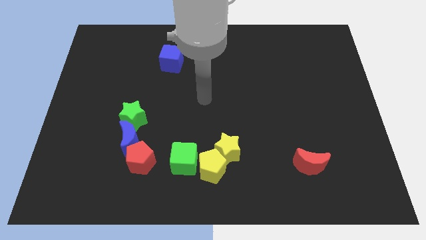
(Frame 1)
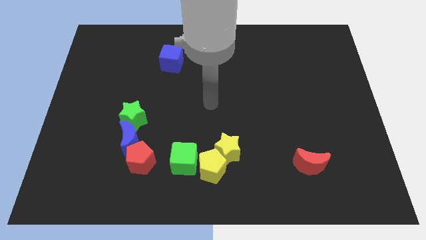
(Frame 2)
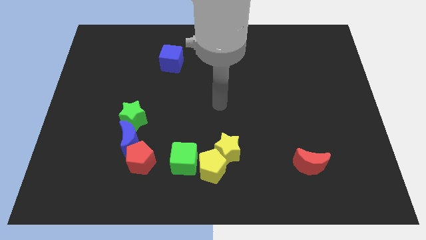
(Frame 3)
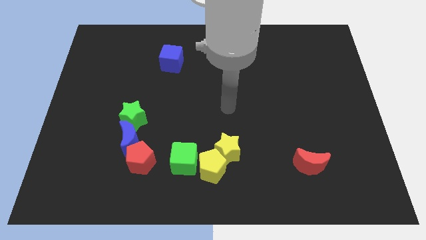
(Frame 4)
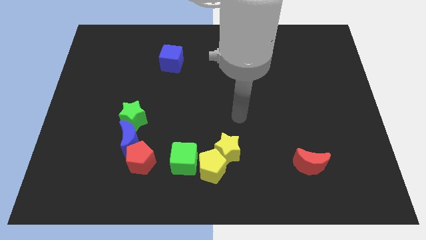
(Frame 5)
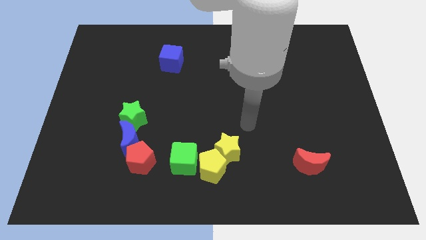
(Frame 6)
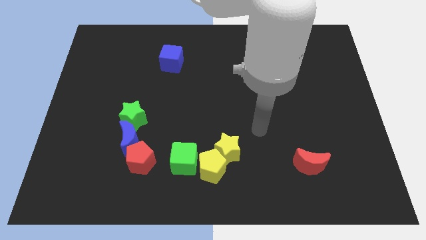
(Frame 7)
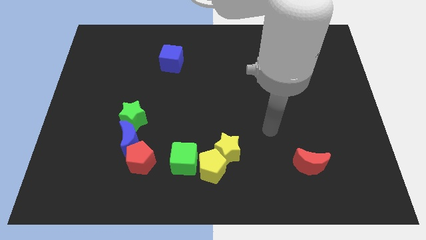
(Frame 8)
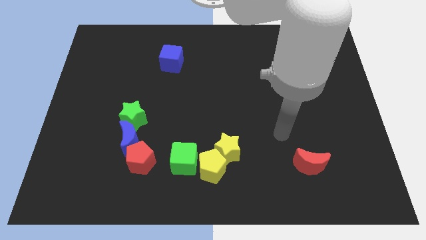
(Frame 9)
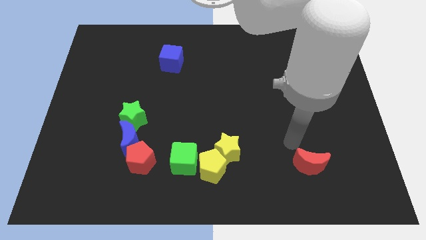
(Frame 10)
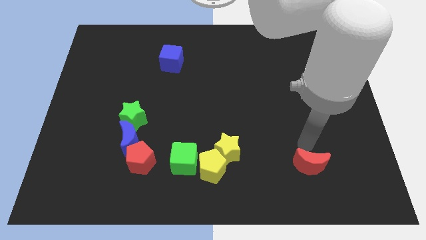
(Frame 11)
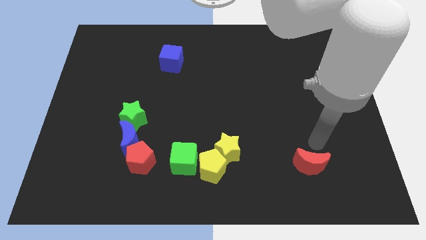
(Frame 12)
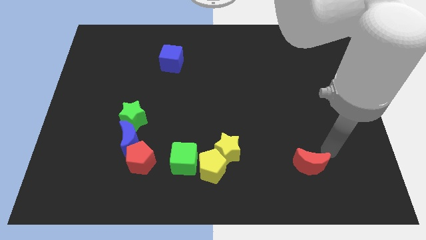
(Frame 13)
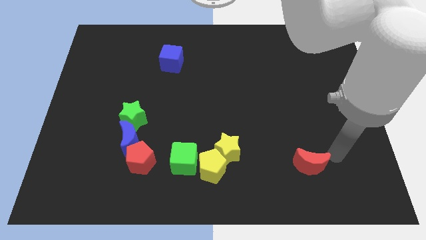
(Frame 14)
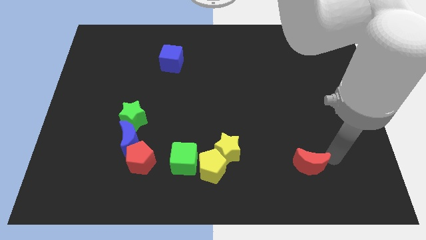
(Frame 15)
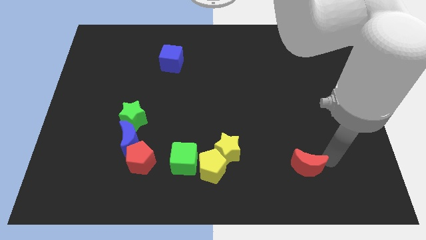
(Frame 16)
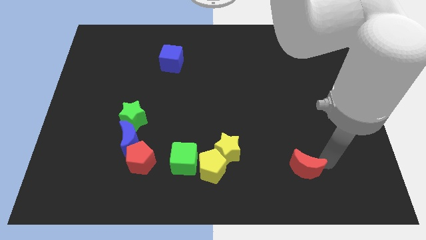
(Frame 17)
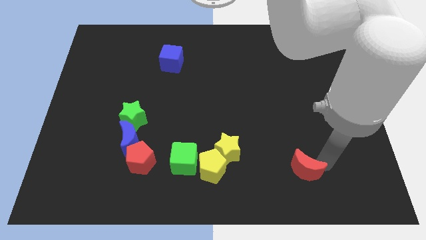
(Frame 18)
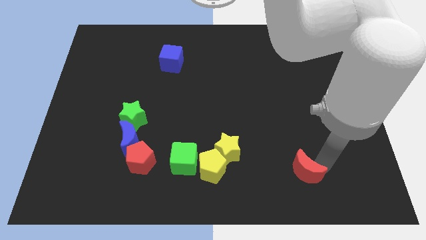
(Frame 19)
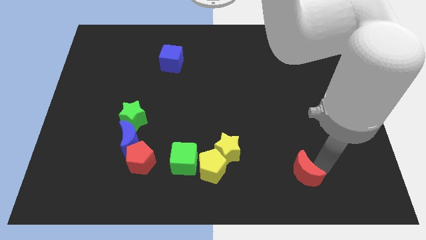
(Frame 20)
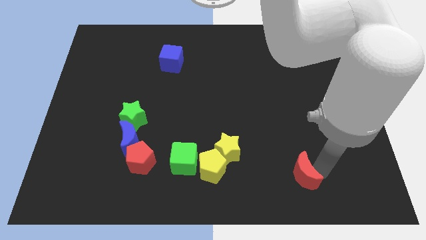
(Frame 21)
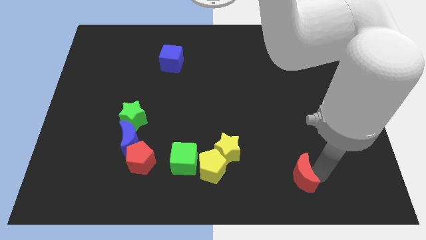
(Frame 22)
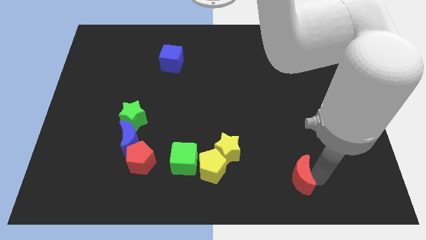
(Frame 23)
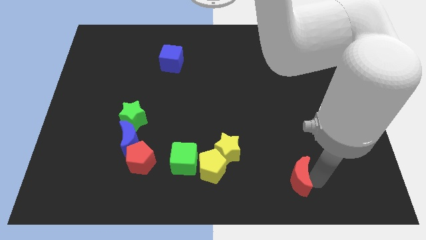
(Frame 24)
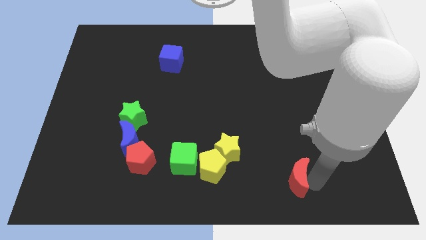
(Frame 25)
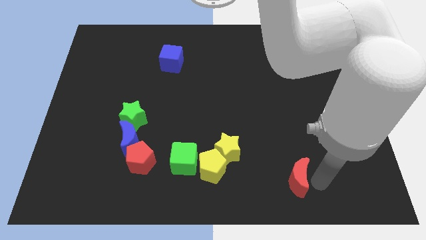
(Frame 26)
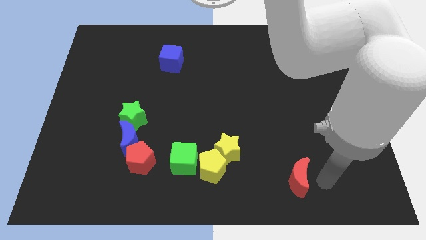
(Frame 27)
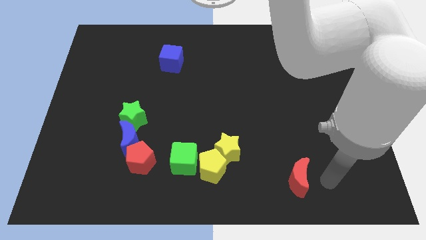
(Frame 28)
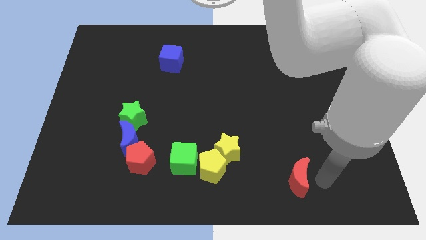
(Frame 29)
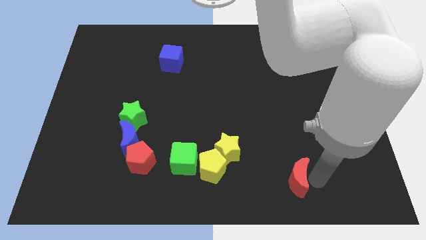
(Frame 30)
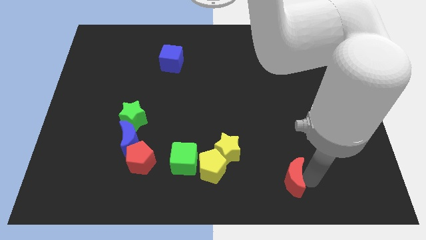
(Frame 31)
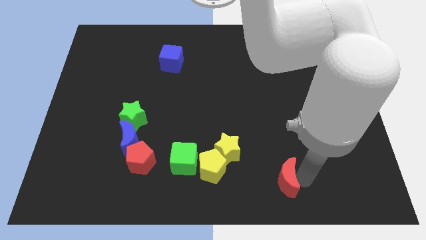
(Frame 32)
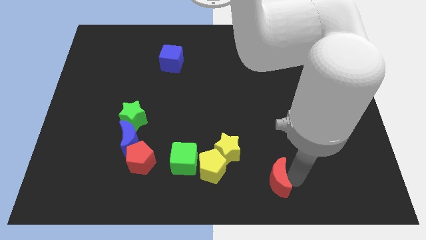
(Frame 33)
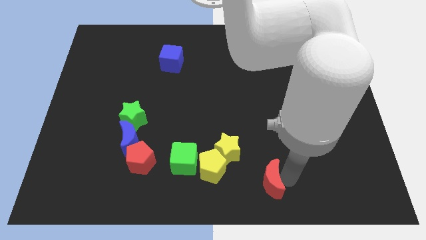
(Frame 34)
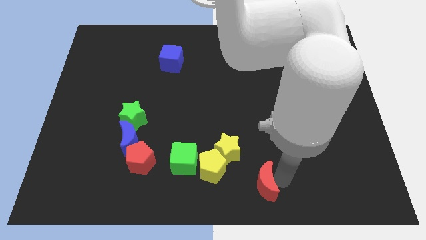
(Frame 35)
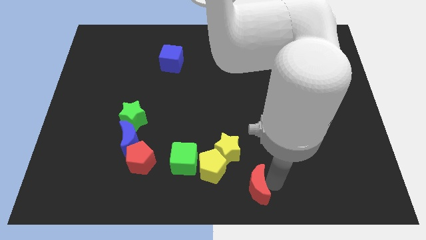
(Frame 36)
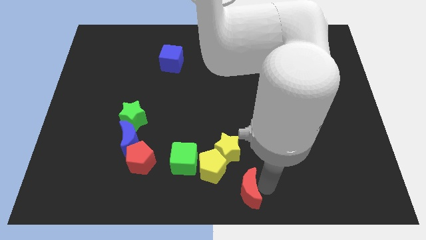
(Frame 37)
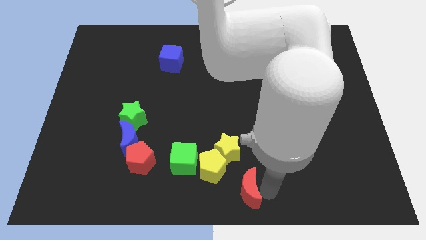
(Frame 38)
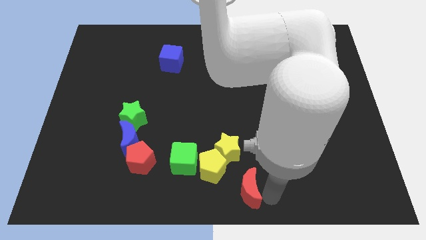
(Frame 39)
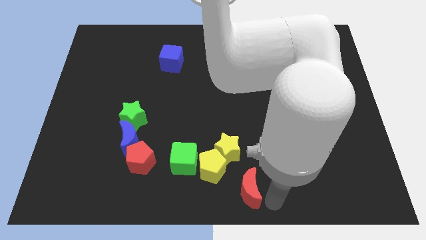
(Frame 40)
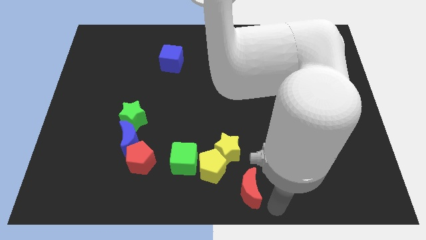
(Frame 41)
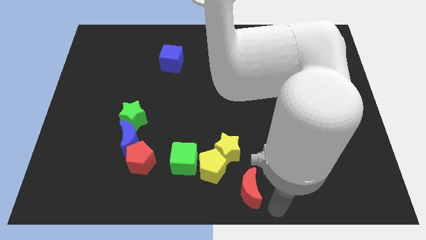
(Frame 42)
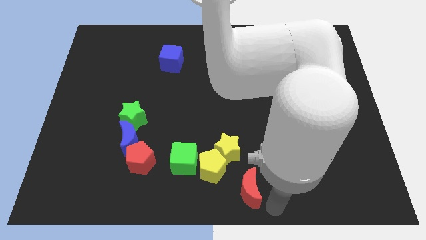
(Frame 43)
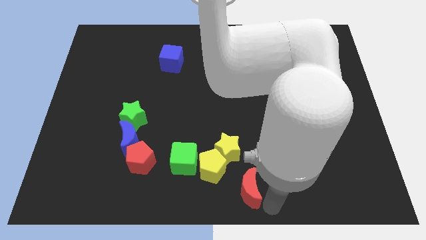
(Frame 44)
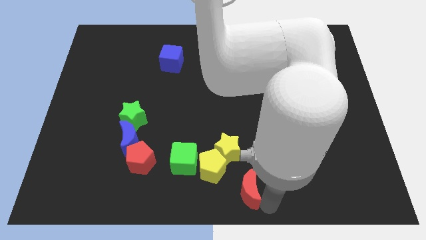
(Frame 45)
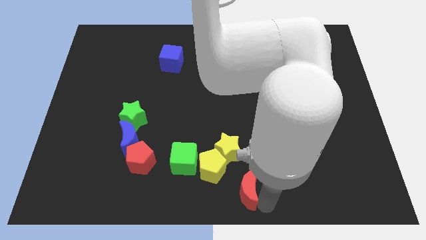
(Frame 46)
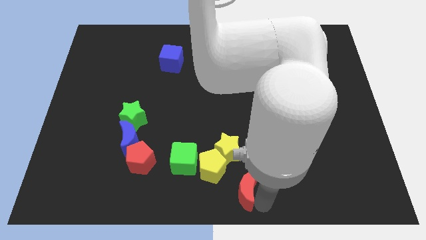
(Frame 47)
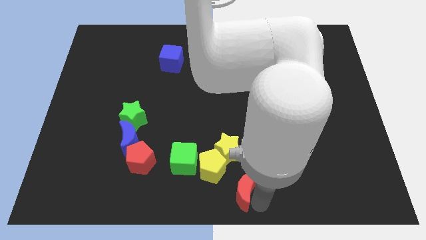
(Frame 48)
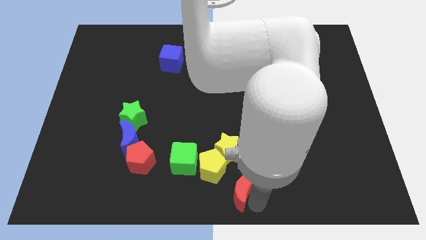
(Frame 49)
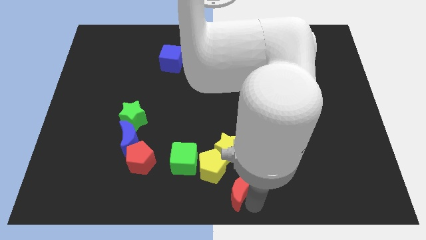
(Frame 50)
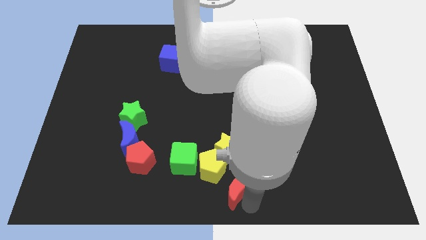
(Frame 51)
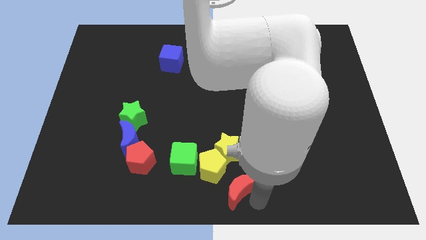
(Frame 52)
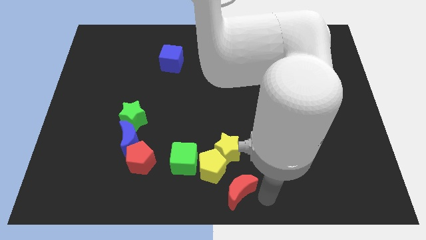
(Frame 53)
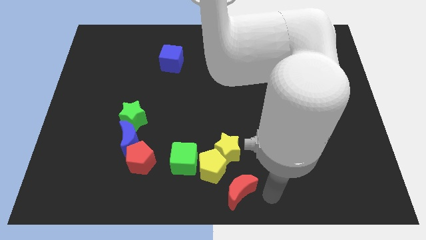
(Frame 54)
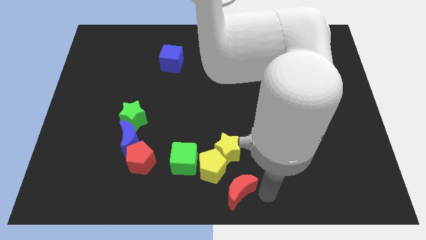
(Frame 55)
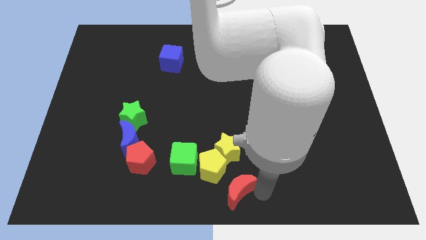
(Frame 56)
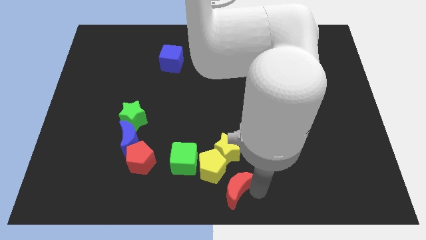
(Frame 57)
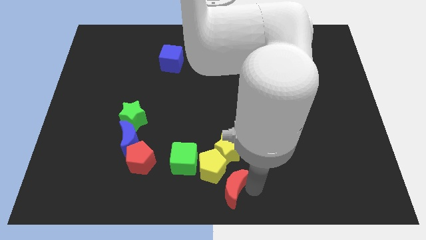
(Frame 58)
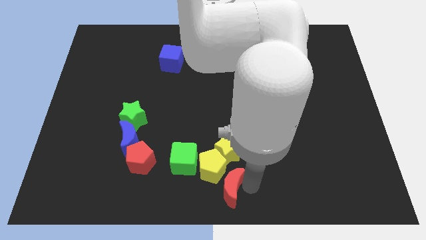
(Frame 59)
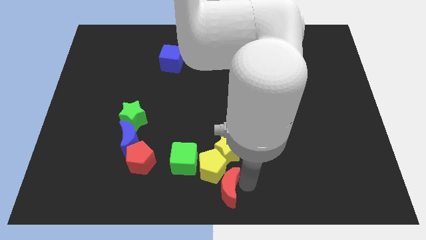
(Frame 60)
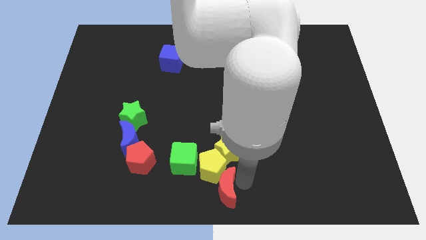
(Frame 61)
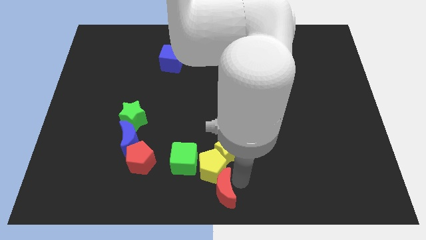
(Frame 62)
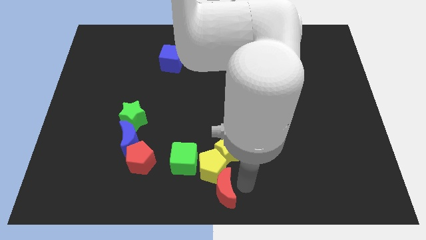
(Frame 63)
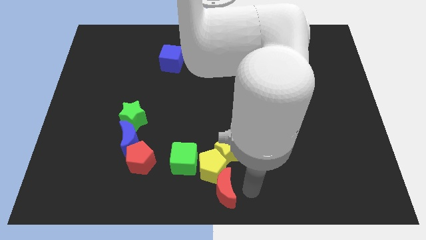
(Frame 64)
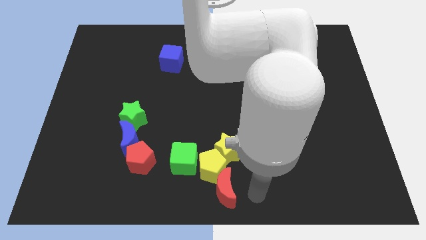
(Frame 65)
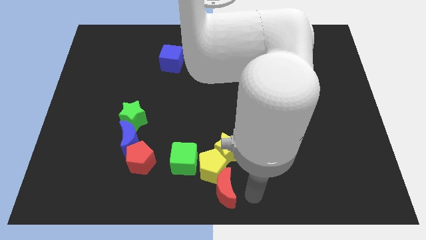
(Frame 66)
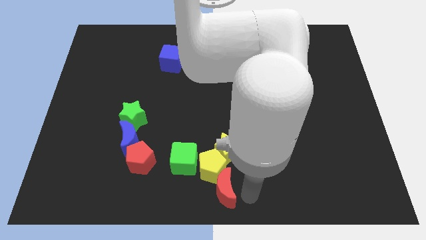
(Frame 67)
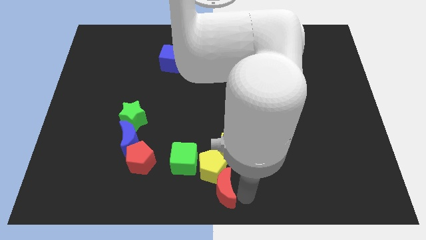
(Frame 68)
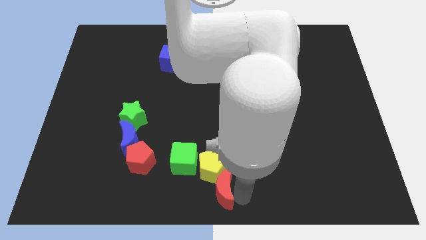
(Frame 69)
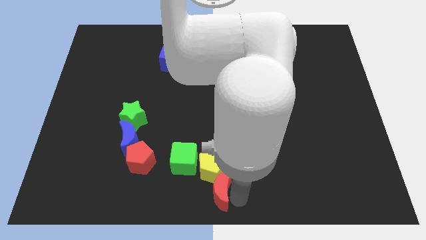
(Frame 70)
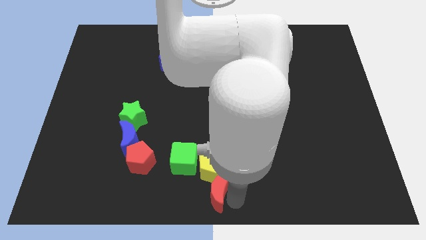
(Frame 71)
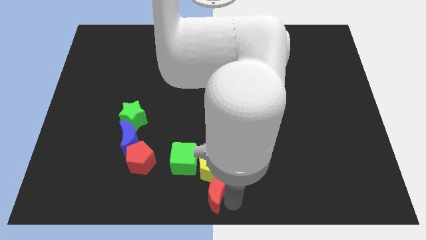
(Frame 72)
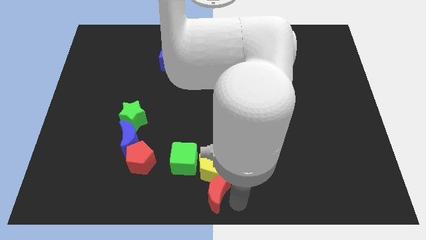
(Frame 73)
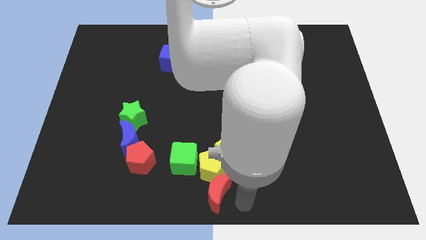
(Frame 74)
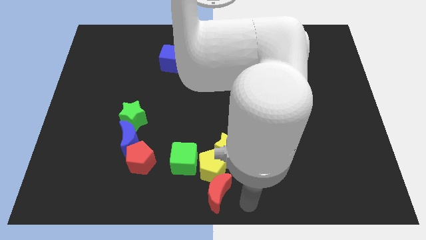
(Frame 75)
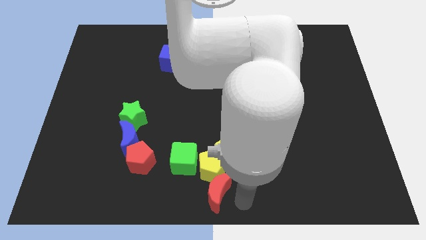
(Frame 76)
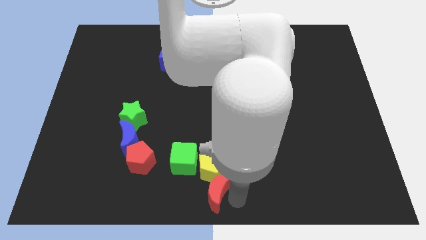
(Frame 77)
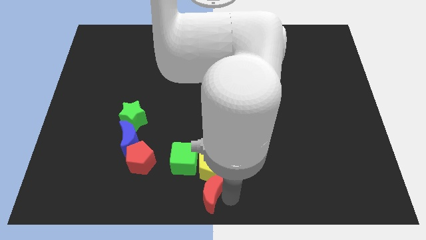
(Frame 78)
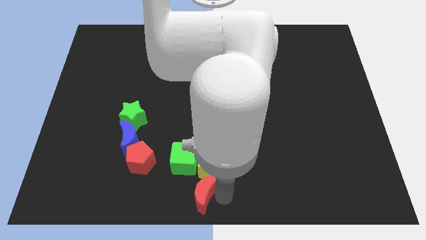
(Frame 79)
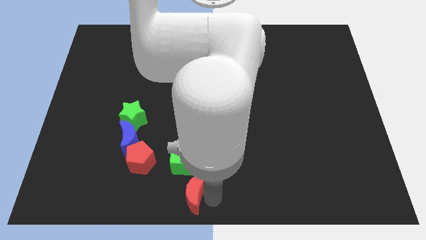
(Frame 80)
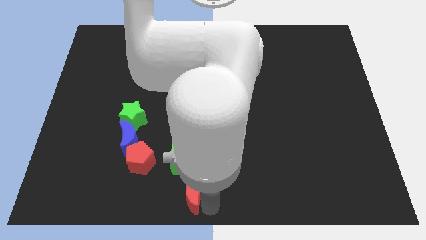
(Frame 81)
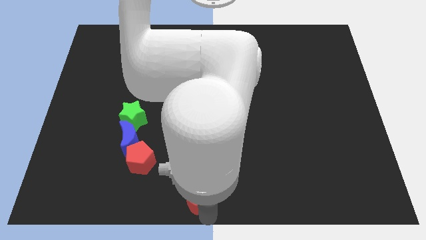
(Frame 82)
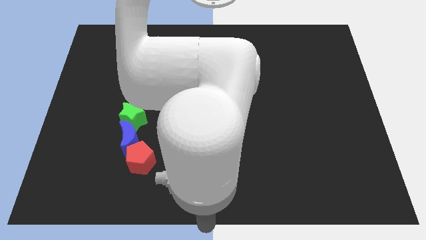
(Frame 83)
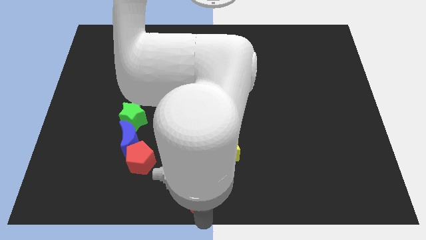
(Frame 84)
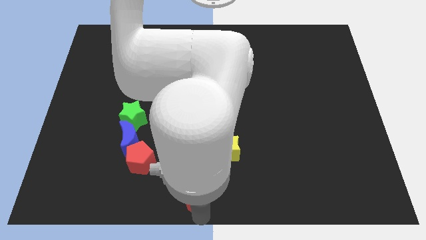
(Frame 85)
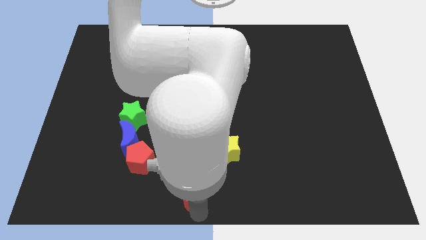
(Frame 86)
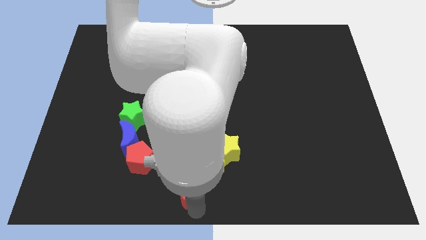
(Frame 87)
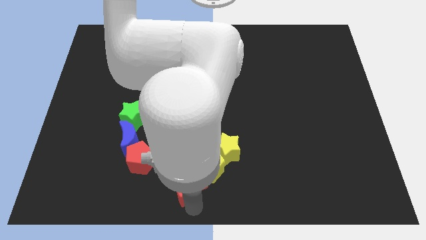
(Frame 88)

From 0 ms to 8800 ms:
push the red moon to the green cube
